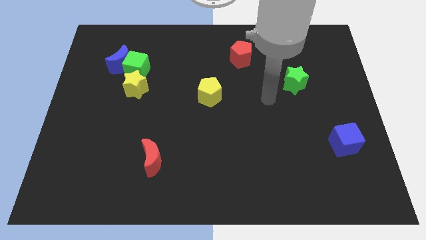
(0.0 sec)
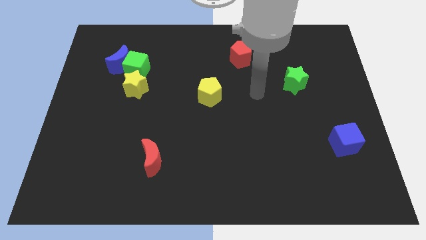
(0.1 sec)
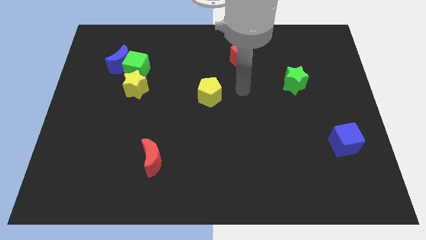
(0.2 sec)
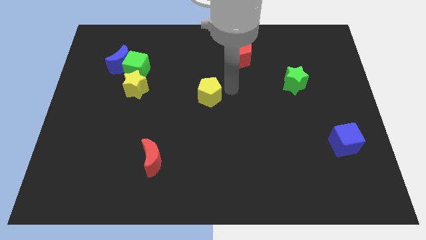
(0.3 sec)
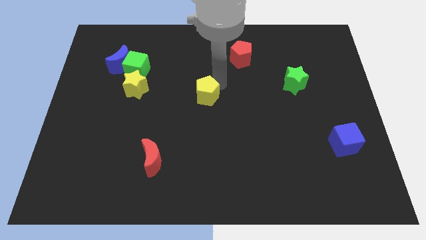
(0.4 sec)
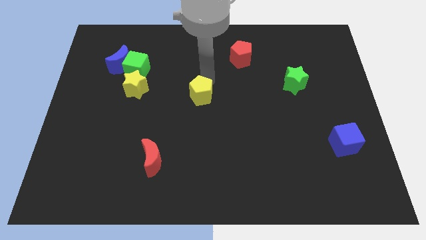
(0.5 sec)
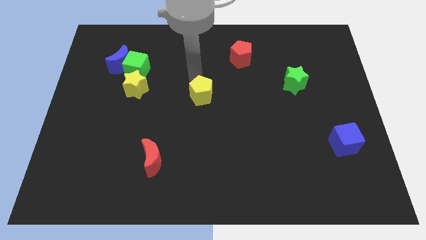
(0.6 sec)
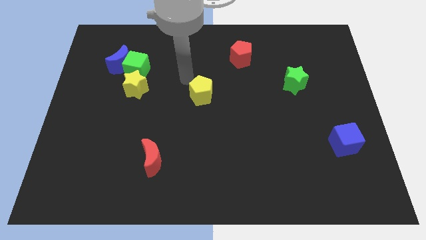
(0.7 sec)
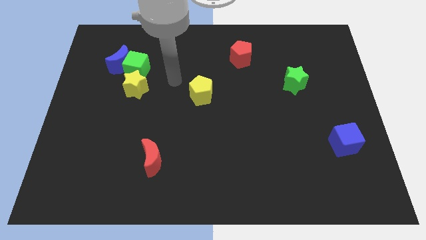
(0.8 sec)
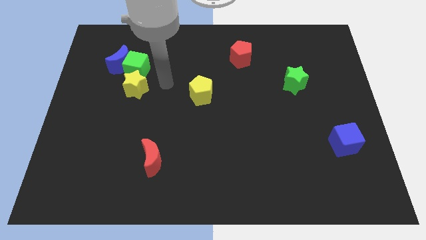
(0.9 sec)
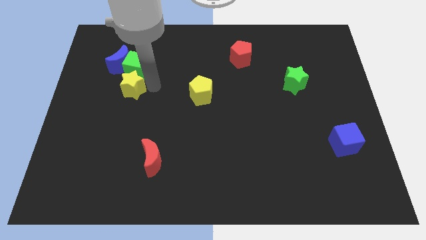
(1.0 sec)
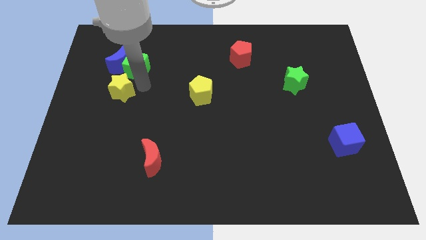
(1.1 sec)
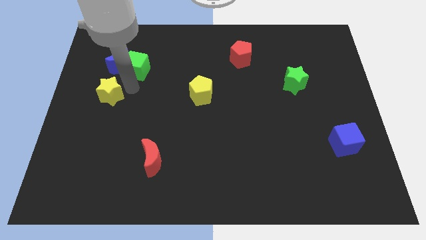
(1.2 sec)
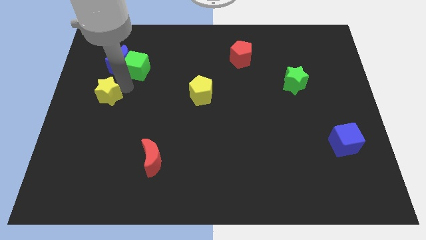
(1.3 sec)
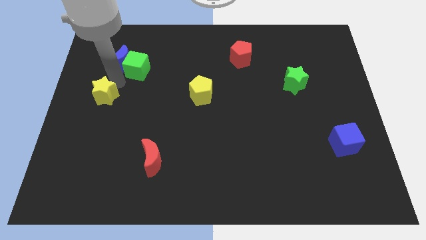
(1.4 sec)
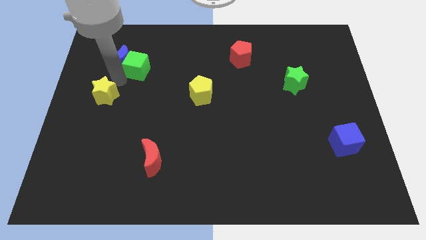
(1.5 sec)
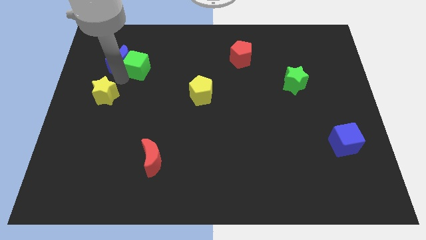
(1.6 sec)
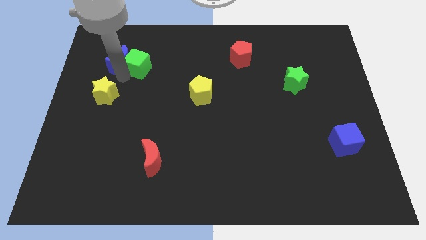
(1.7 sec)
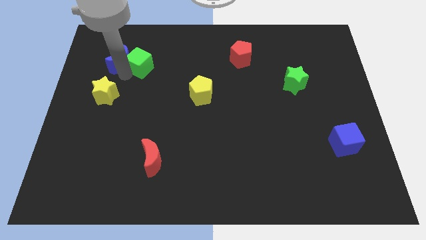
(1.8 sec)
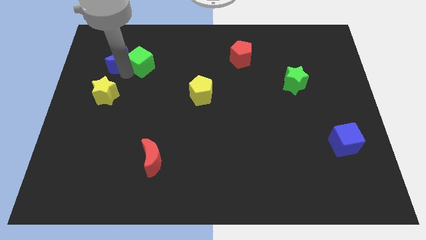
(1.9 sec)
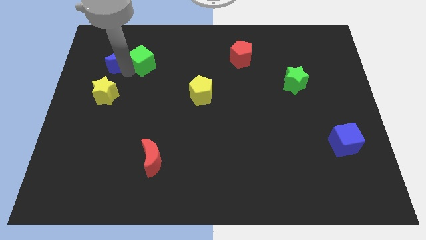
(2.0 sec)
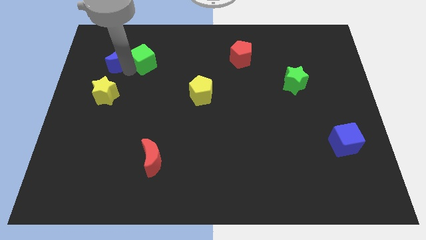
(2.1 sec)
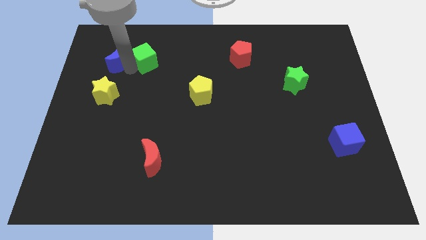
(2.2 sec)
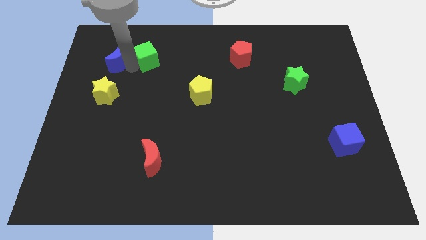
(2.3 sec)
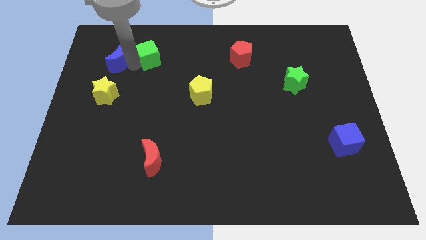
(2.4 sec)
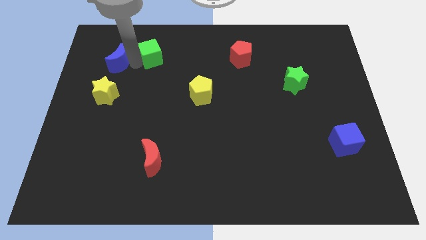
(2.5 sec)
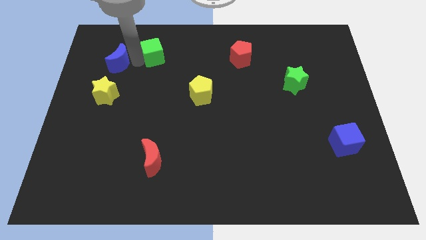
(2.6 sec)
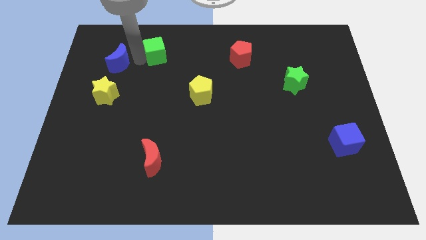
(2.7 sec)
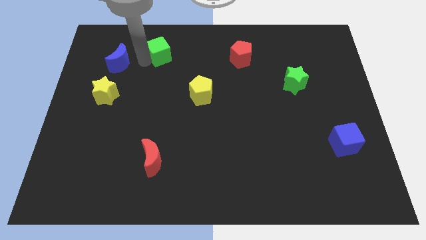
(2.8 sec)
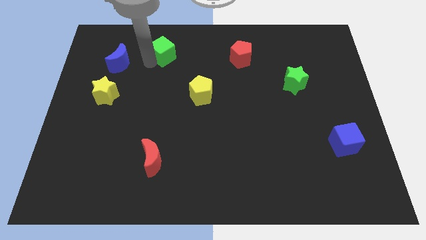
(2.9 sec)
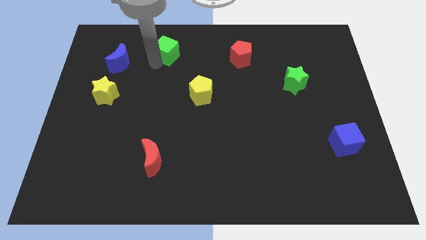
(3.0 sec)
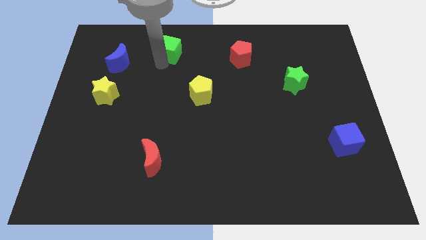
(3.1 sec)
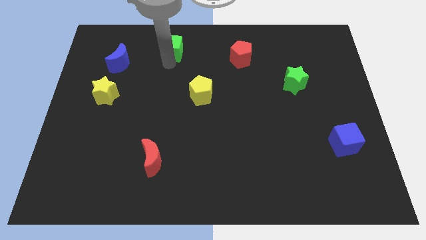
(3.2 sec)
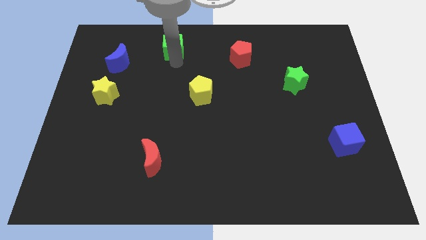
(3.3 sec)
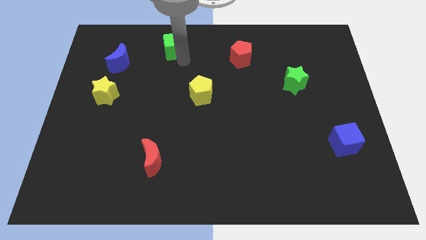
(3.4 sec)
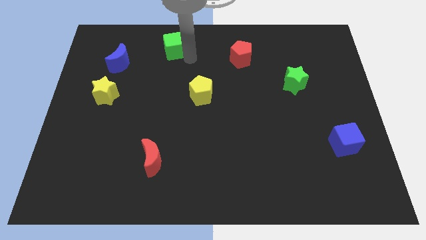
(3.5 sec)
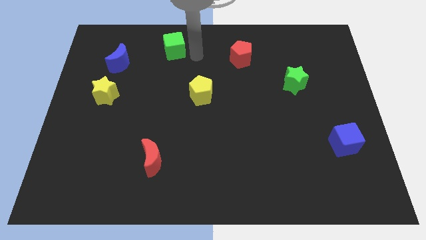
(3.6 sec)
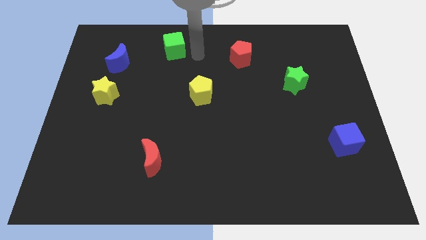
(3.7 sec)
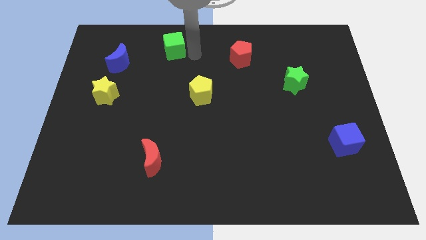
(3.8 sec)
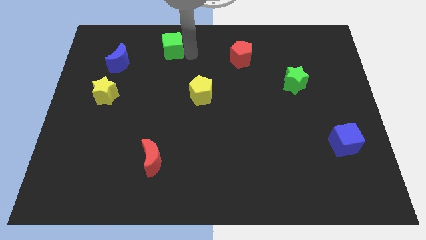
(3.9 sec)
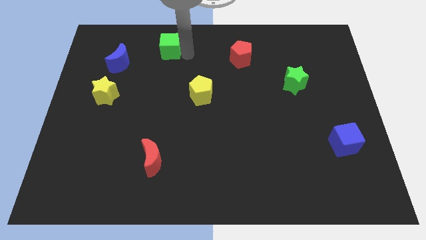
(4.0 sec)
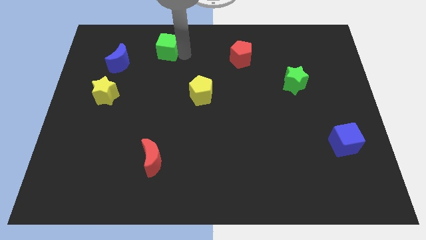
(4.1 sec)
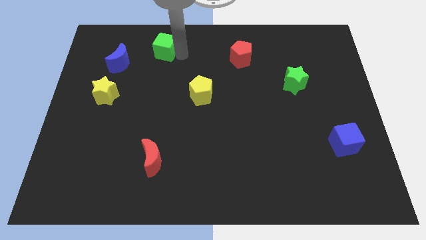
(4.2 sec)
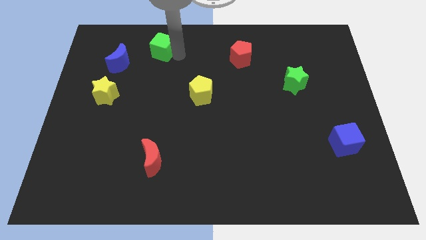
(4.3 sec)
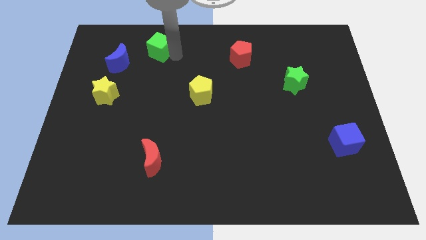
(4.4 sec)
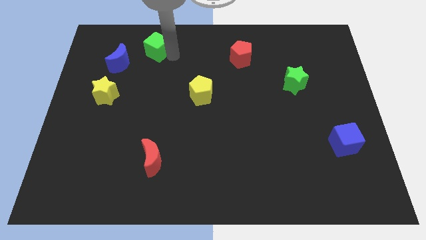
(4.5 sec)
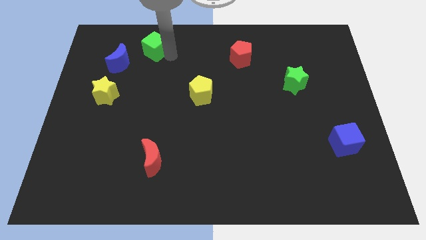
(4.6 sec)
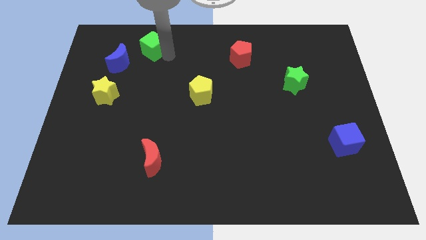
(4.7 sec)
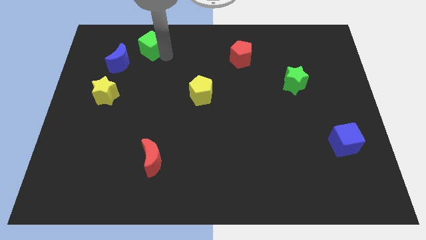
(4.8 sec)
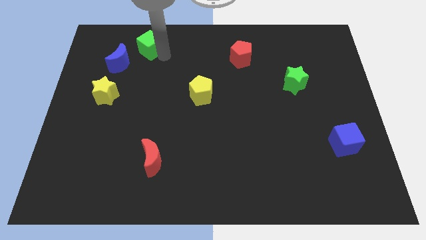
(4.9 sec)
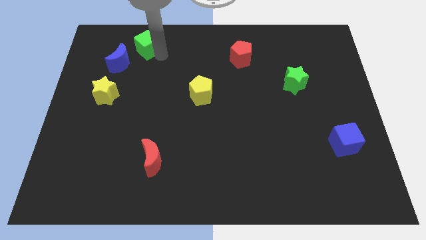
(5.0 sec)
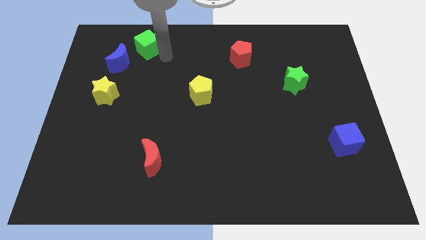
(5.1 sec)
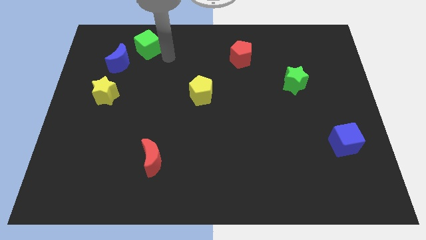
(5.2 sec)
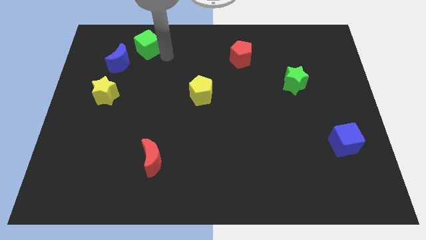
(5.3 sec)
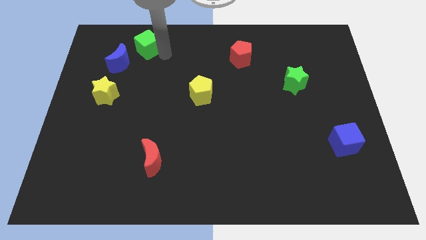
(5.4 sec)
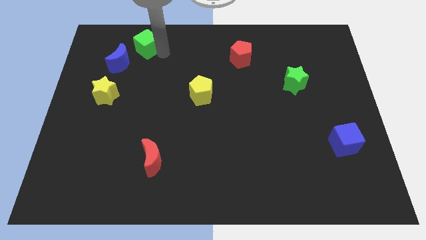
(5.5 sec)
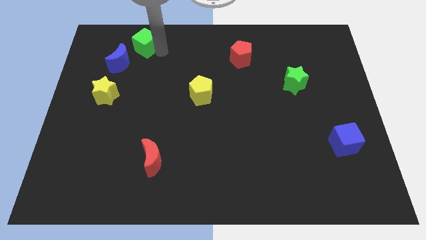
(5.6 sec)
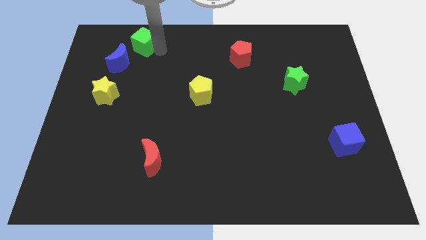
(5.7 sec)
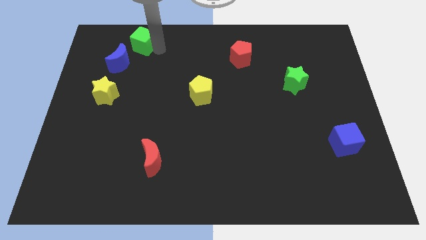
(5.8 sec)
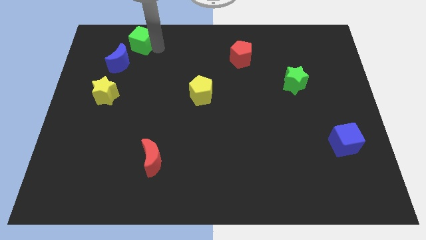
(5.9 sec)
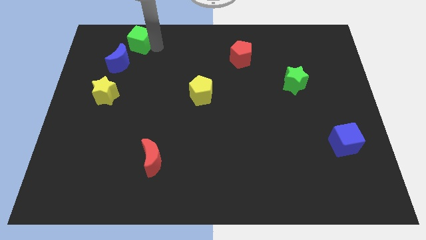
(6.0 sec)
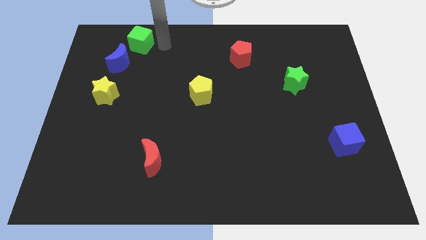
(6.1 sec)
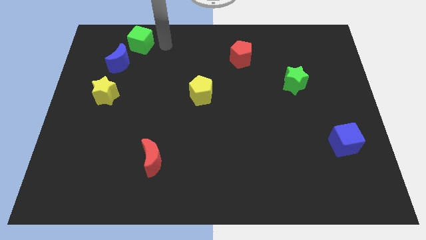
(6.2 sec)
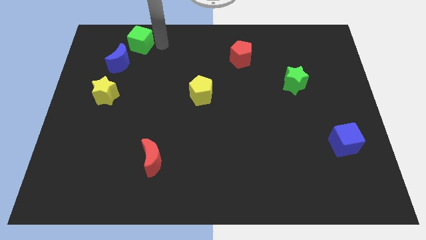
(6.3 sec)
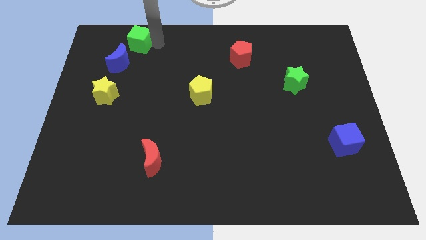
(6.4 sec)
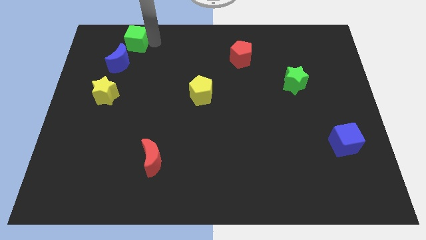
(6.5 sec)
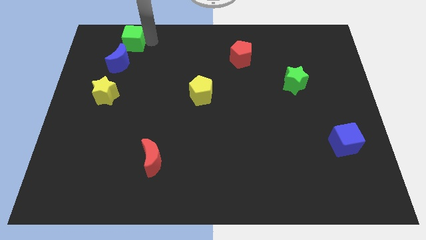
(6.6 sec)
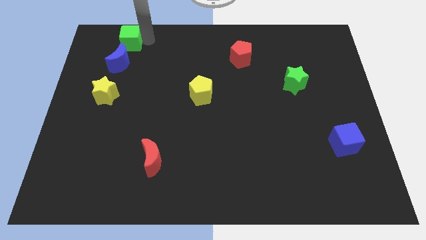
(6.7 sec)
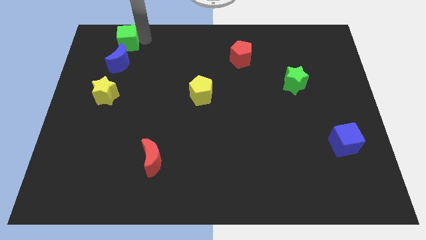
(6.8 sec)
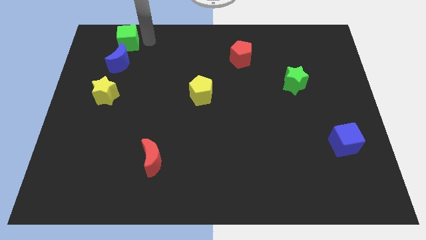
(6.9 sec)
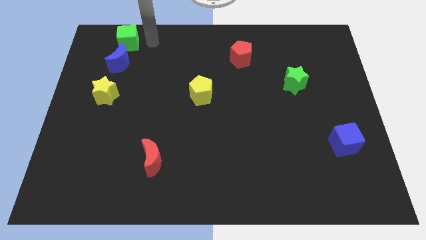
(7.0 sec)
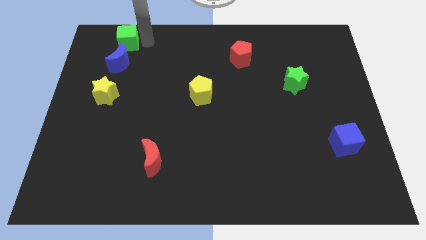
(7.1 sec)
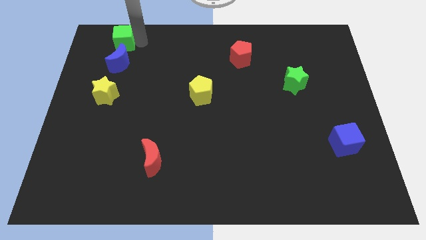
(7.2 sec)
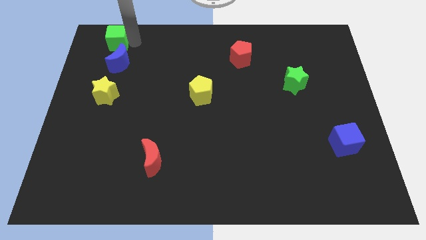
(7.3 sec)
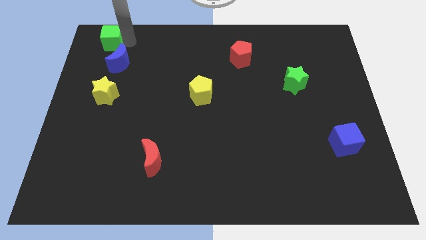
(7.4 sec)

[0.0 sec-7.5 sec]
move the green cube to the top left corner
